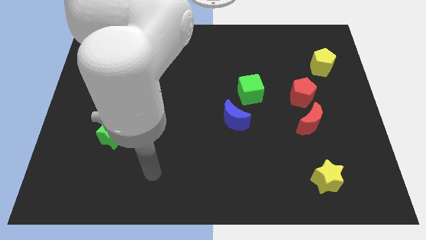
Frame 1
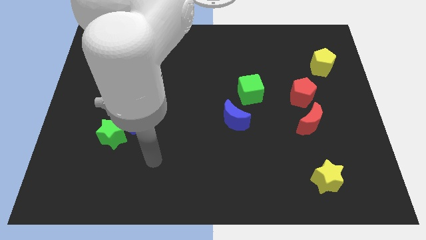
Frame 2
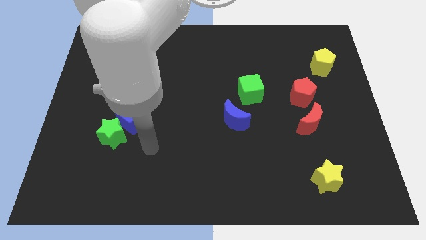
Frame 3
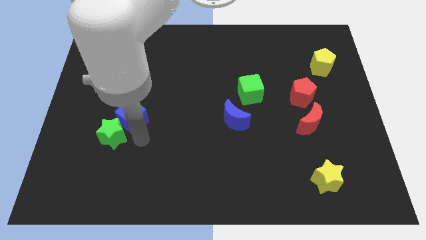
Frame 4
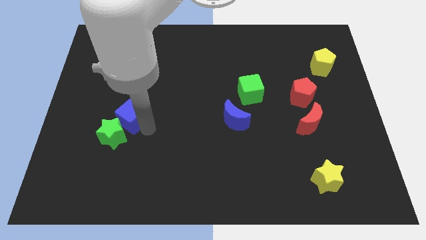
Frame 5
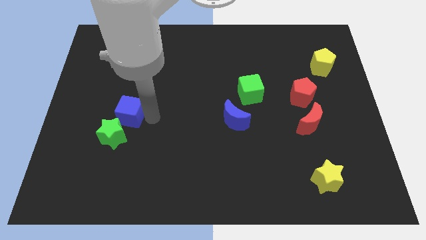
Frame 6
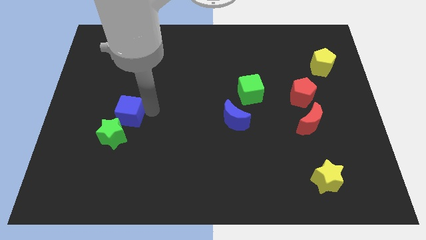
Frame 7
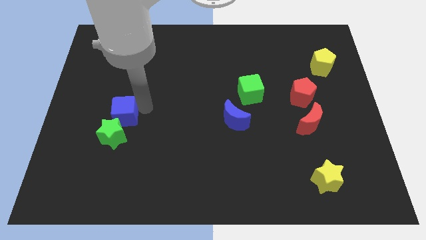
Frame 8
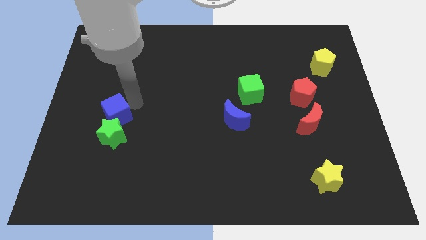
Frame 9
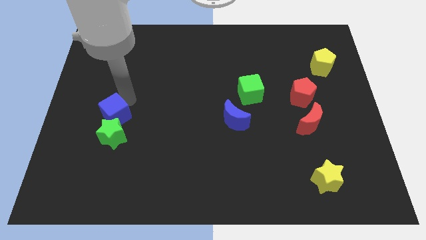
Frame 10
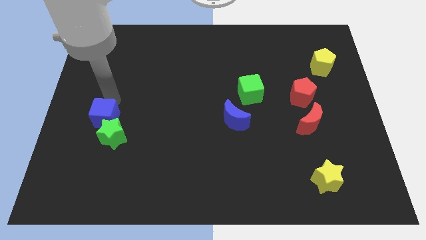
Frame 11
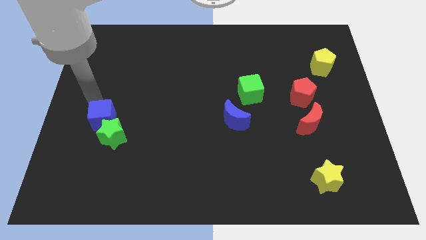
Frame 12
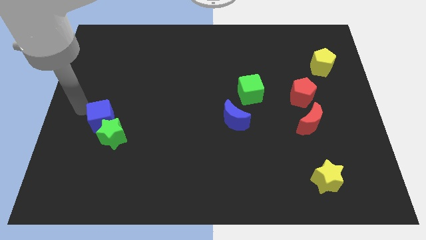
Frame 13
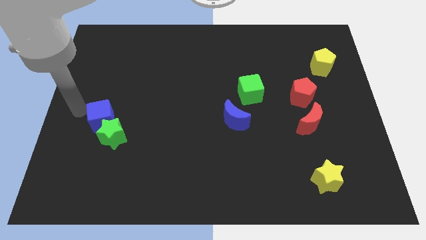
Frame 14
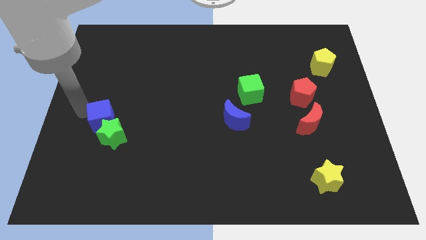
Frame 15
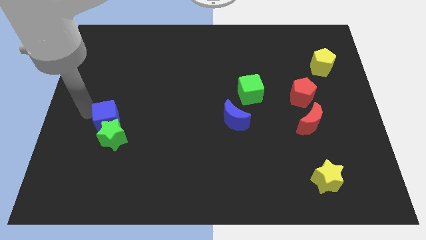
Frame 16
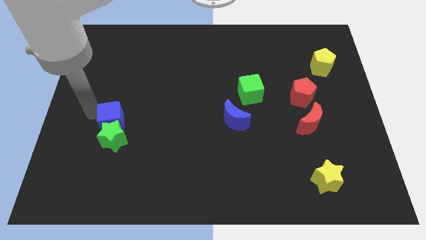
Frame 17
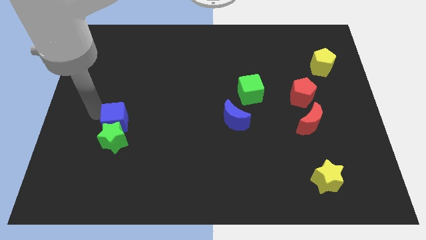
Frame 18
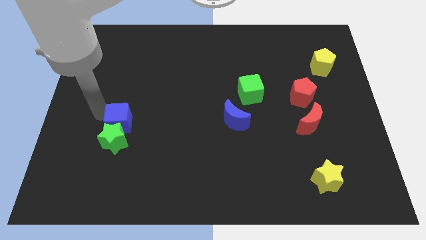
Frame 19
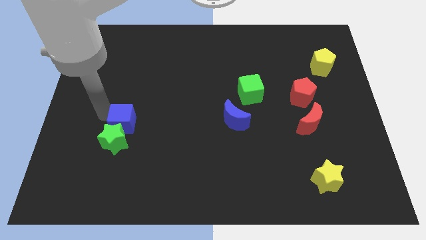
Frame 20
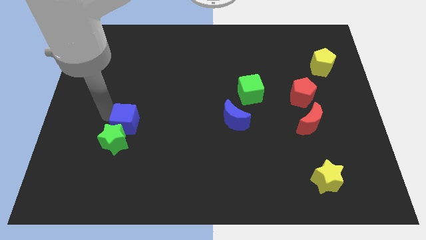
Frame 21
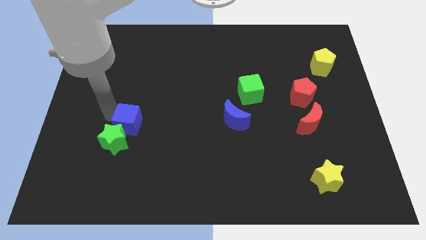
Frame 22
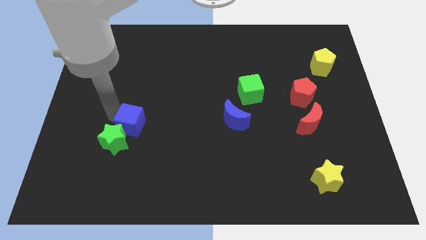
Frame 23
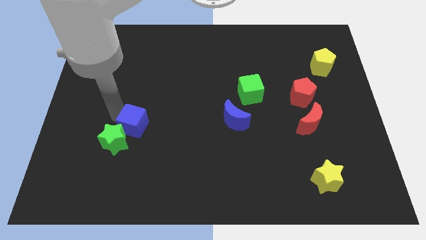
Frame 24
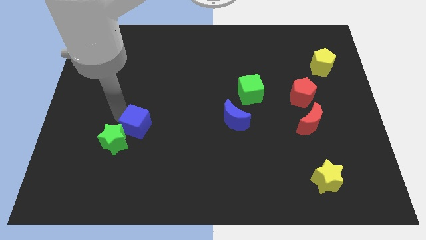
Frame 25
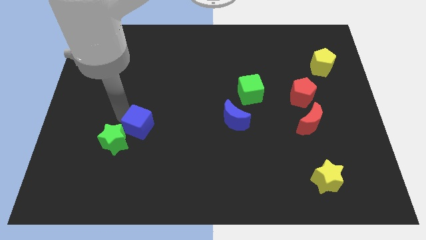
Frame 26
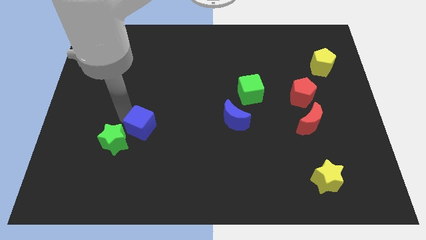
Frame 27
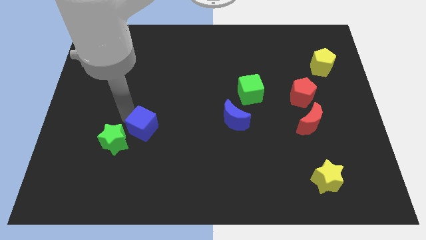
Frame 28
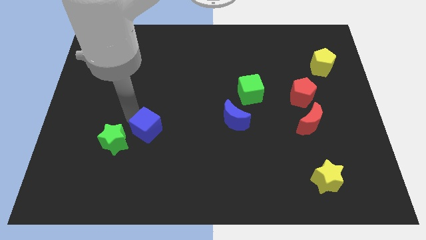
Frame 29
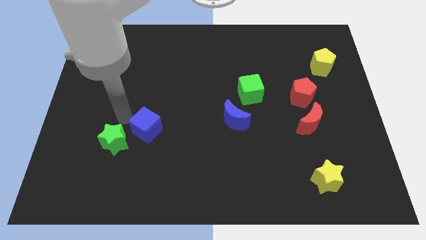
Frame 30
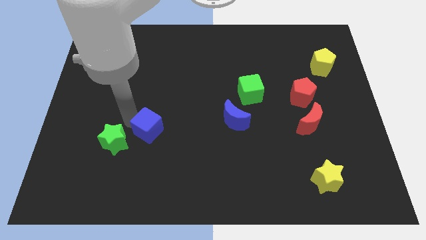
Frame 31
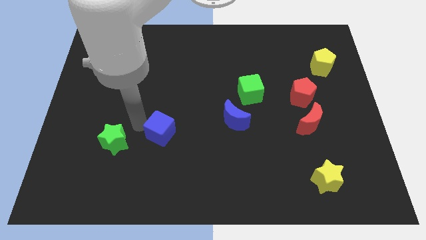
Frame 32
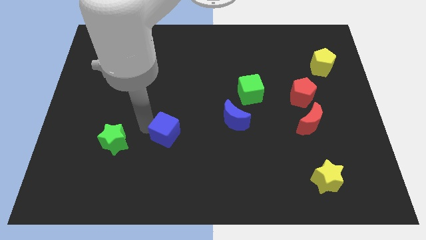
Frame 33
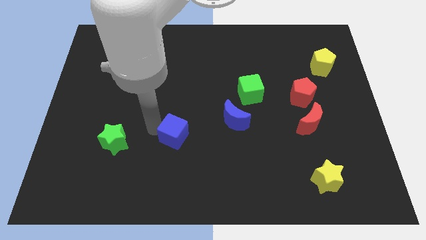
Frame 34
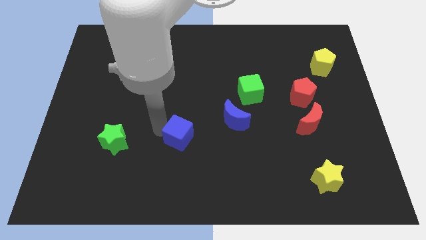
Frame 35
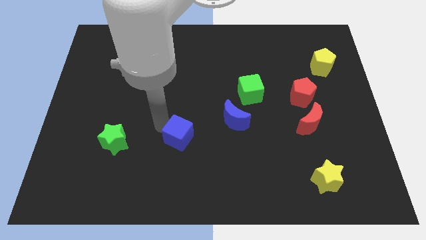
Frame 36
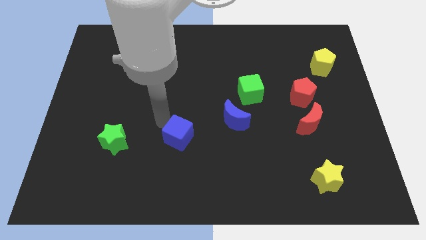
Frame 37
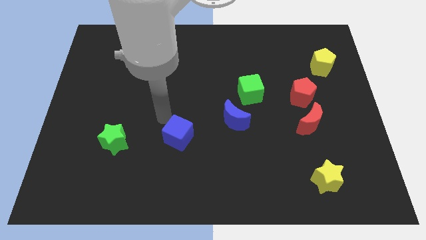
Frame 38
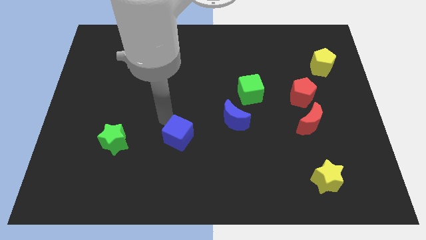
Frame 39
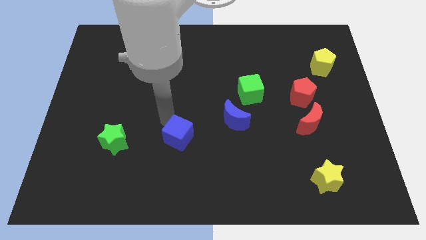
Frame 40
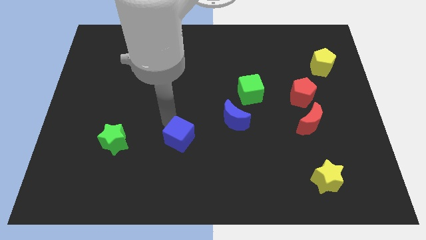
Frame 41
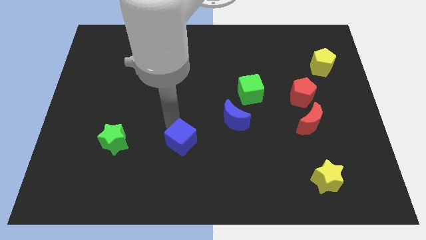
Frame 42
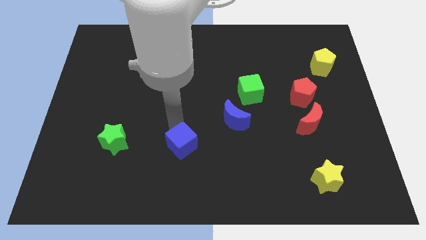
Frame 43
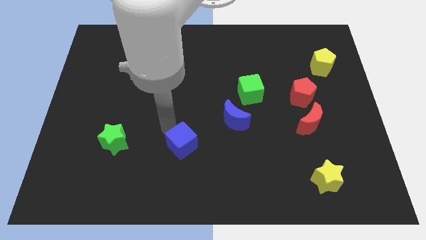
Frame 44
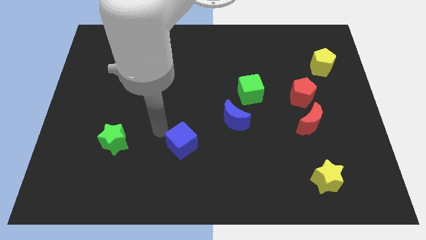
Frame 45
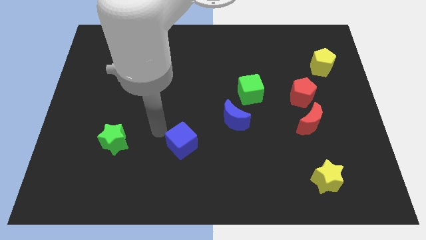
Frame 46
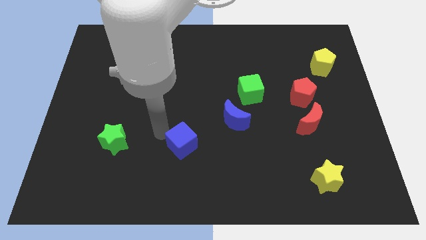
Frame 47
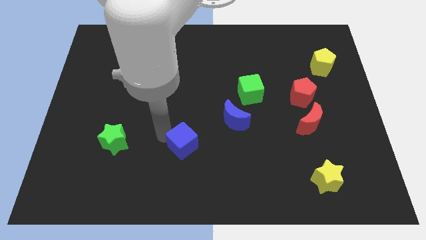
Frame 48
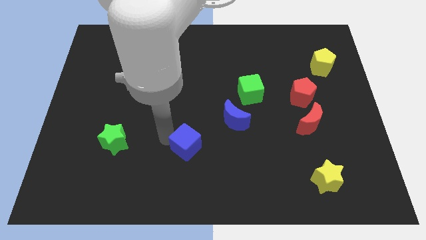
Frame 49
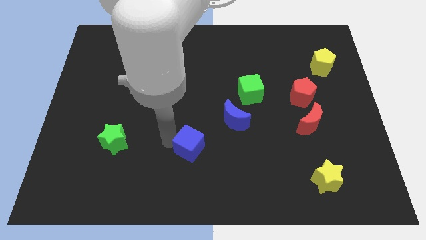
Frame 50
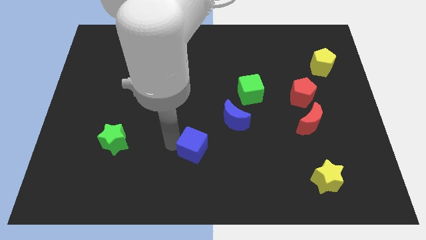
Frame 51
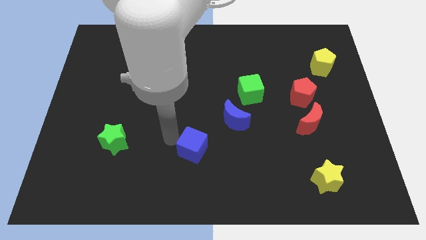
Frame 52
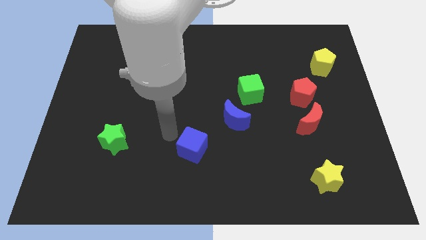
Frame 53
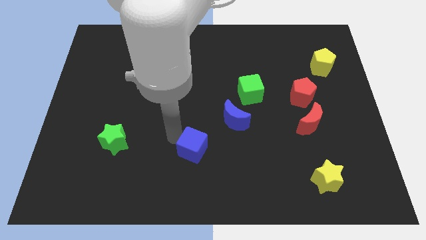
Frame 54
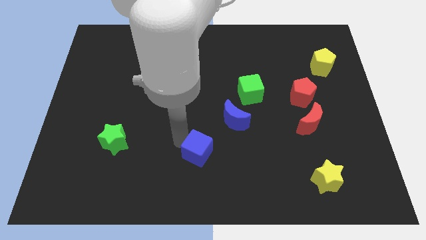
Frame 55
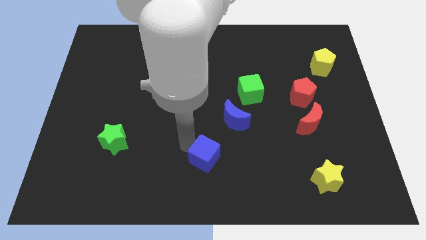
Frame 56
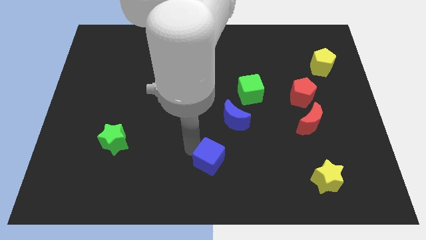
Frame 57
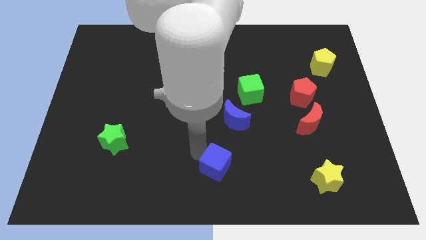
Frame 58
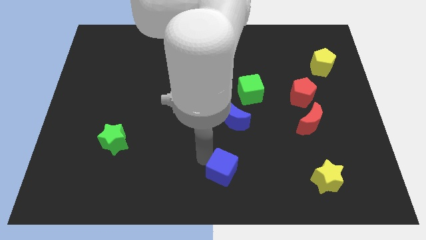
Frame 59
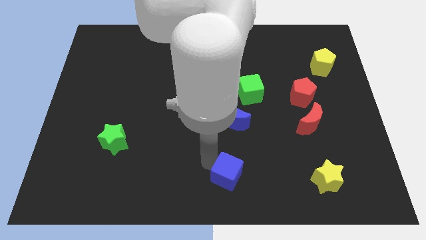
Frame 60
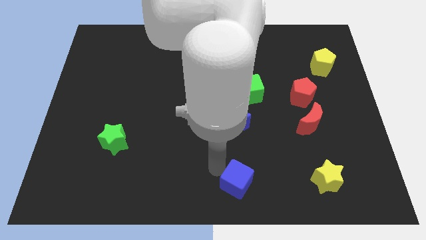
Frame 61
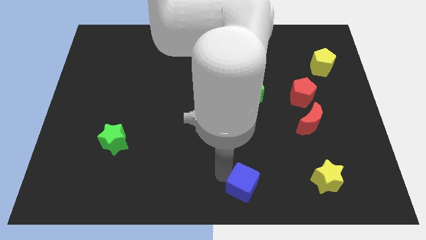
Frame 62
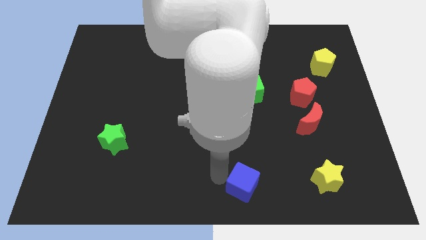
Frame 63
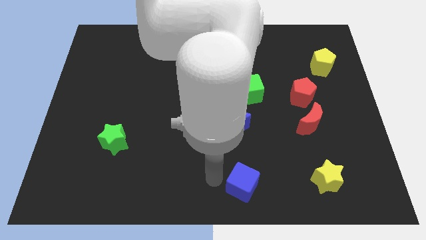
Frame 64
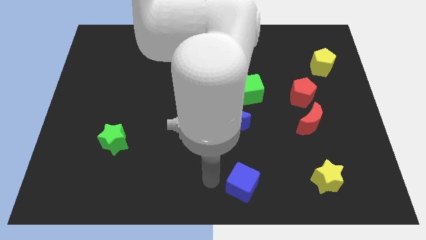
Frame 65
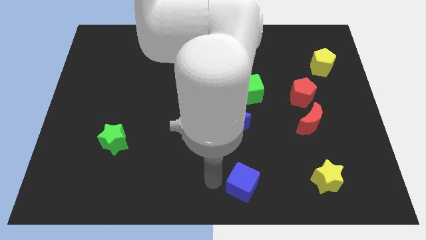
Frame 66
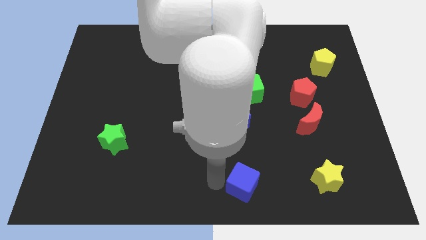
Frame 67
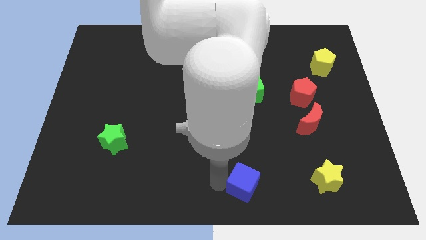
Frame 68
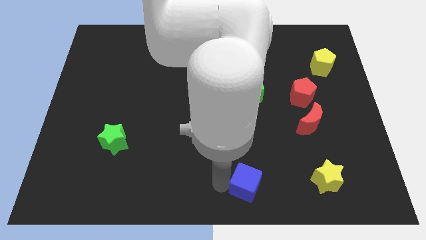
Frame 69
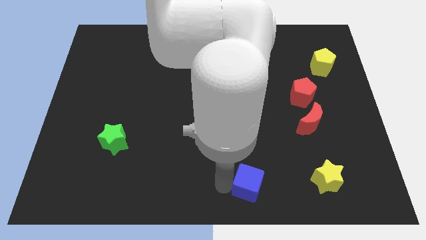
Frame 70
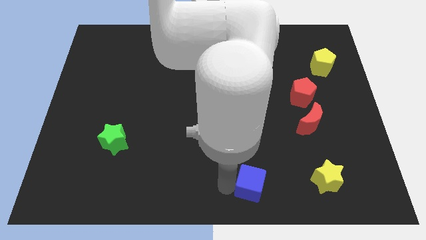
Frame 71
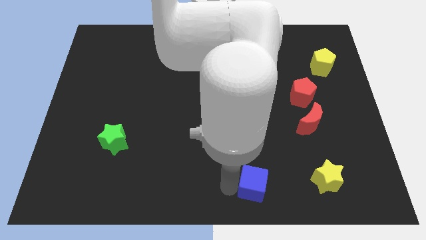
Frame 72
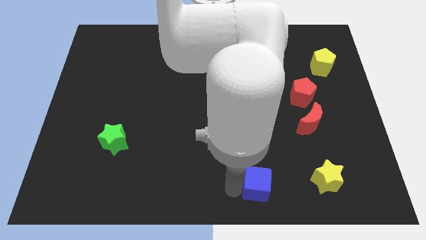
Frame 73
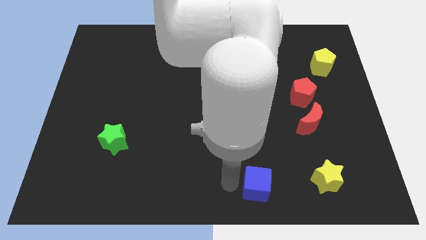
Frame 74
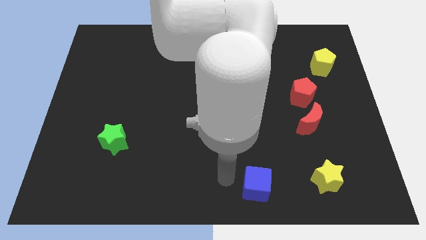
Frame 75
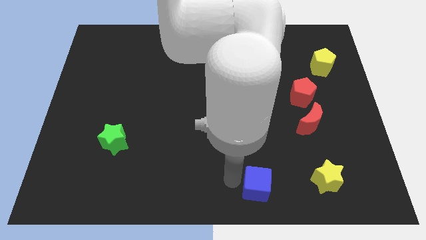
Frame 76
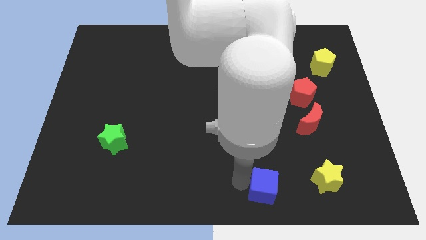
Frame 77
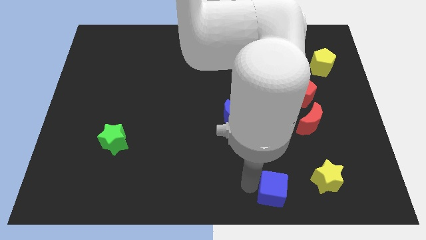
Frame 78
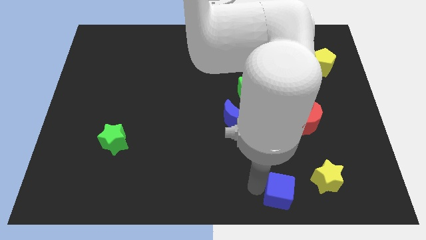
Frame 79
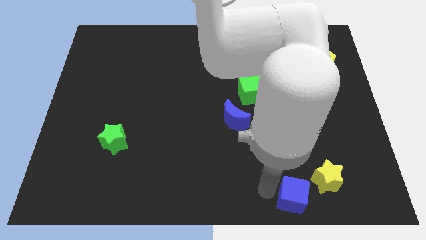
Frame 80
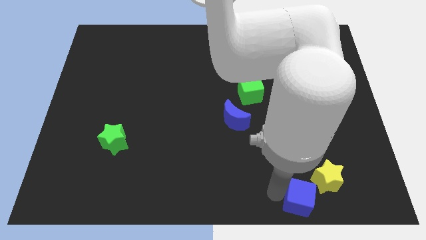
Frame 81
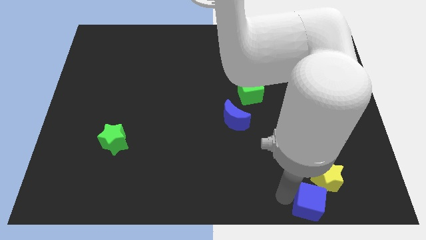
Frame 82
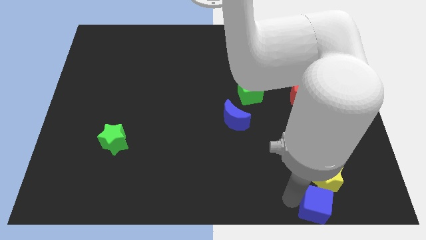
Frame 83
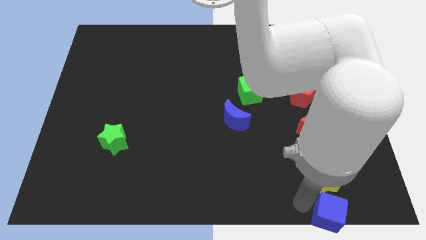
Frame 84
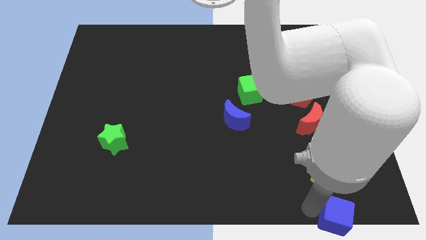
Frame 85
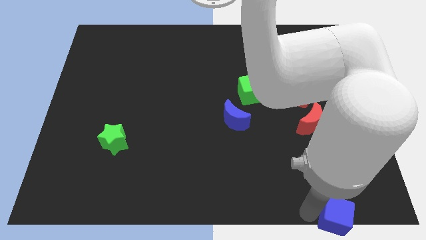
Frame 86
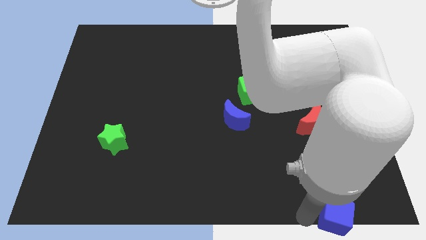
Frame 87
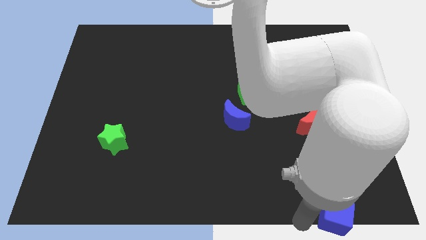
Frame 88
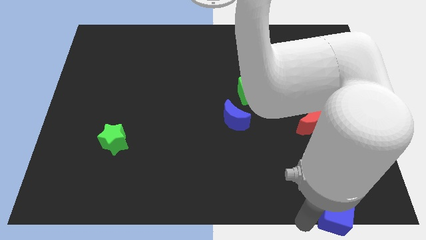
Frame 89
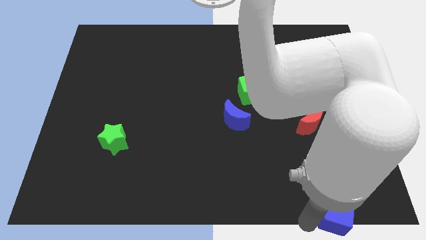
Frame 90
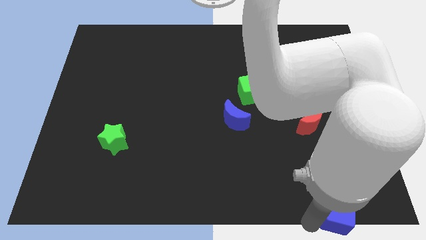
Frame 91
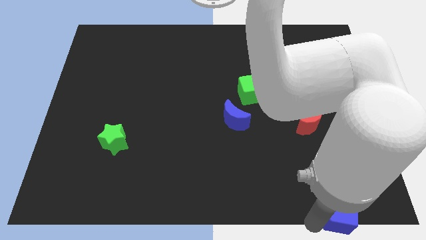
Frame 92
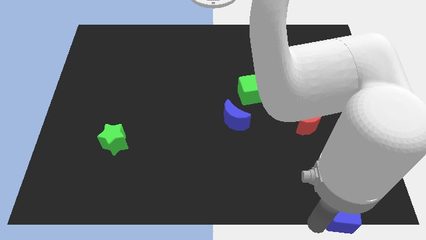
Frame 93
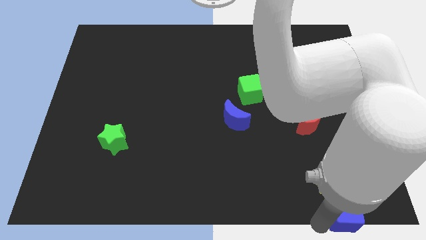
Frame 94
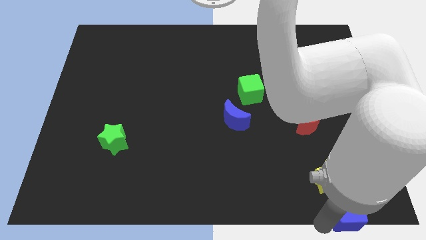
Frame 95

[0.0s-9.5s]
put the blue cube to the bottom right of the board
